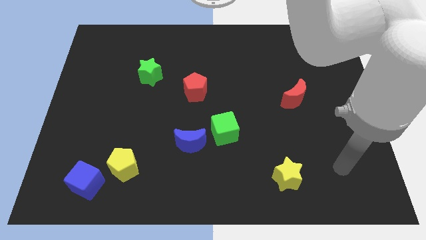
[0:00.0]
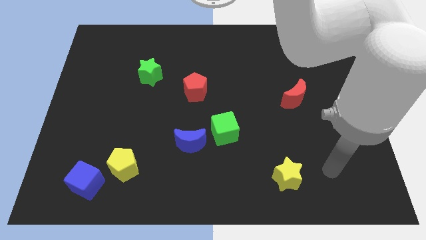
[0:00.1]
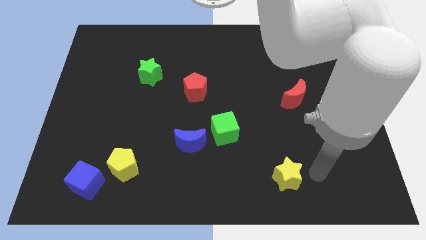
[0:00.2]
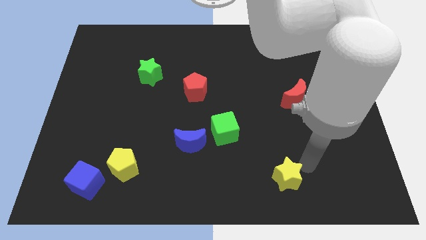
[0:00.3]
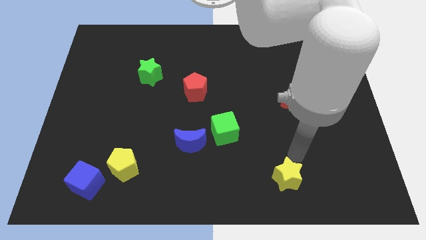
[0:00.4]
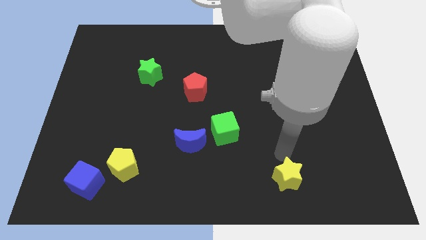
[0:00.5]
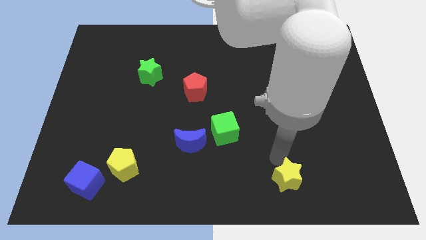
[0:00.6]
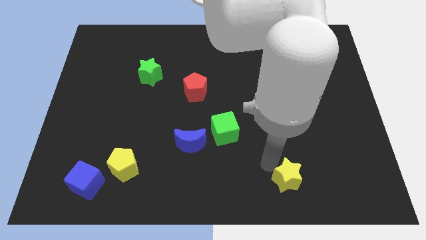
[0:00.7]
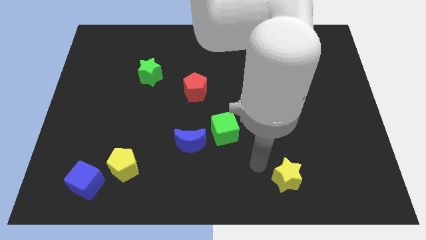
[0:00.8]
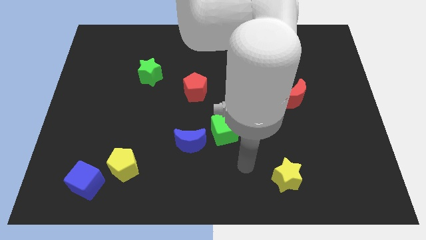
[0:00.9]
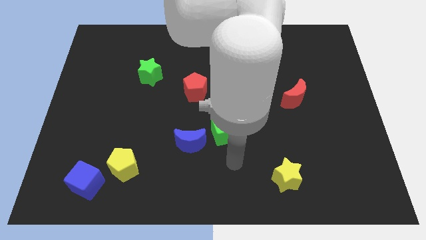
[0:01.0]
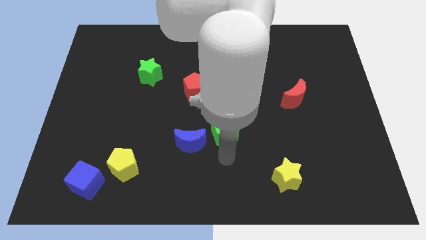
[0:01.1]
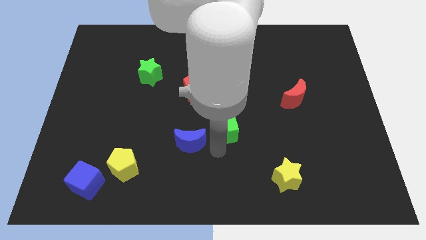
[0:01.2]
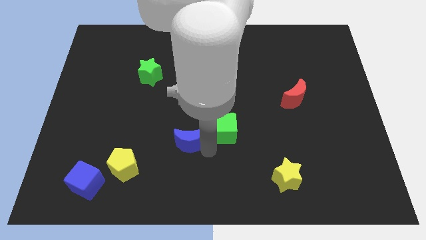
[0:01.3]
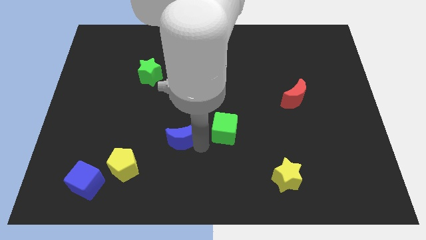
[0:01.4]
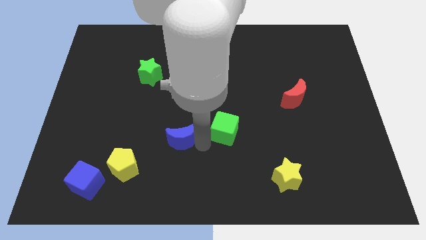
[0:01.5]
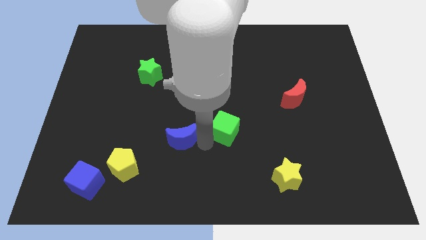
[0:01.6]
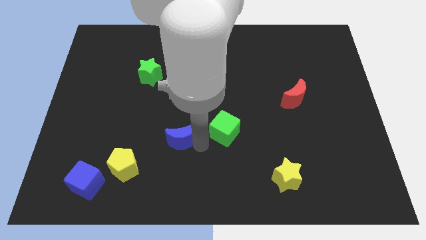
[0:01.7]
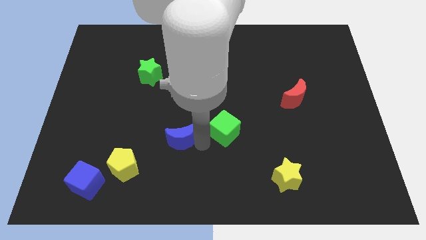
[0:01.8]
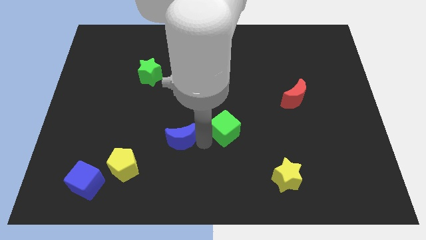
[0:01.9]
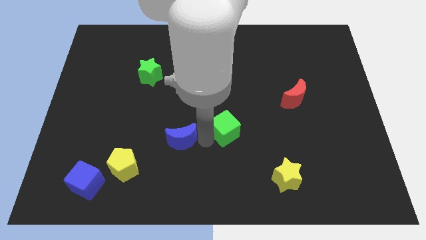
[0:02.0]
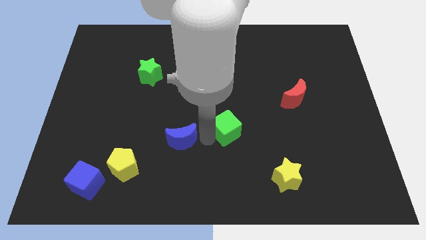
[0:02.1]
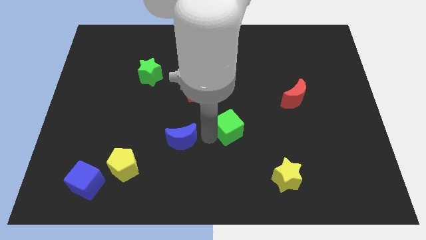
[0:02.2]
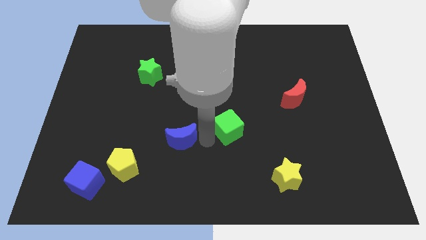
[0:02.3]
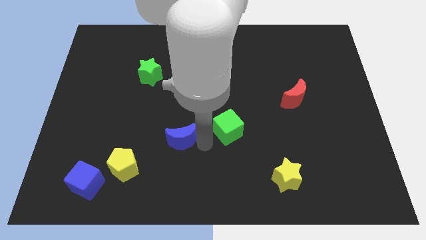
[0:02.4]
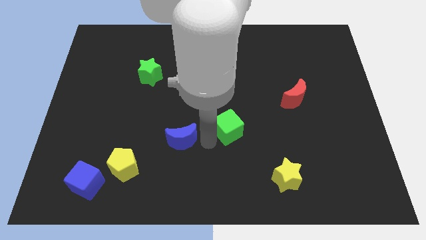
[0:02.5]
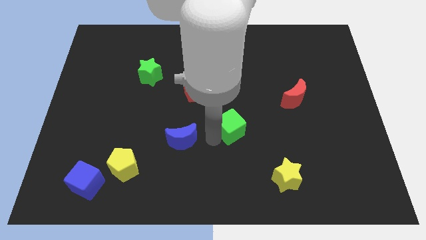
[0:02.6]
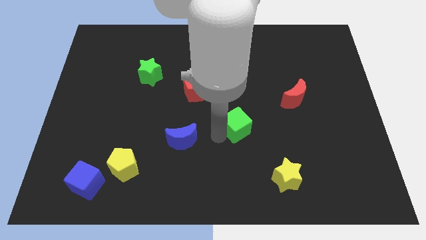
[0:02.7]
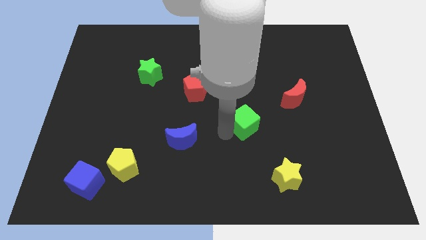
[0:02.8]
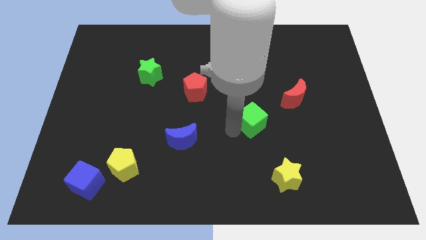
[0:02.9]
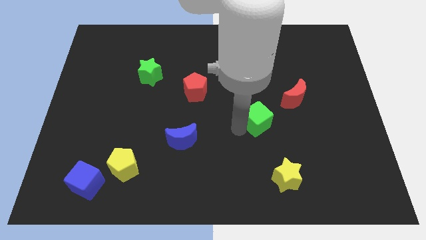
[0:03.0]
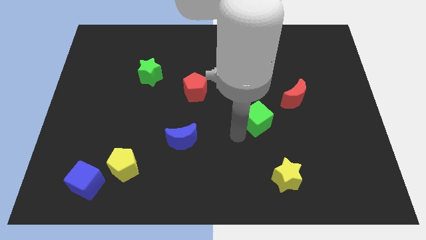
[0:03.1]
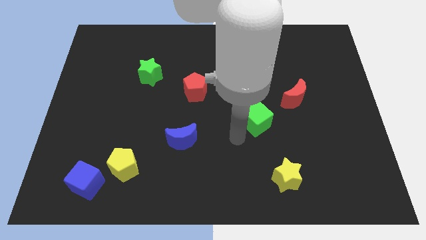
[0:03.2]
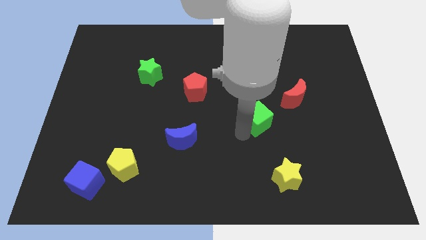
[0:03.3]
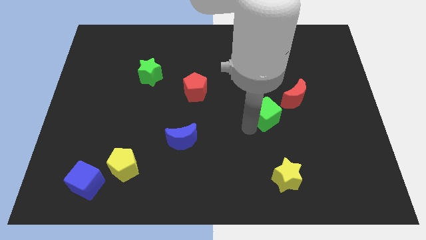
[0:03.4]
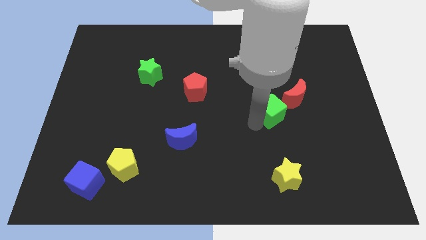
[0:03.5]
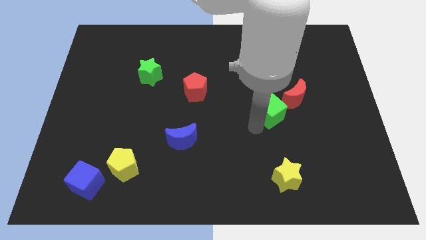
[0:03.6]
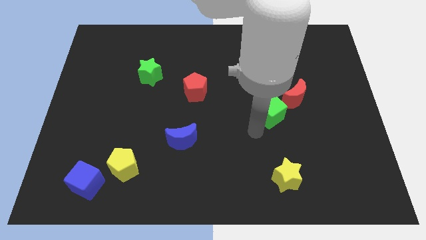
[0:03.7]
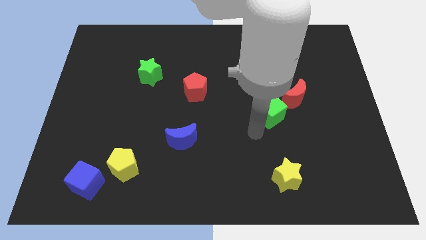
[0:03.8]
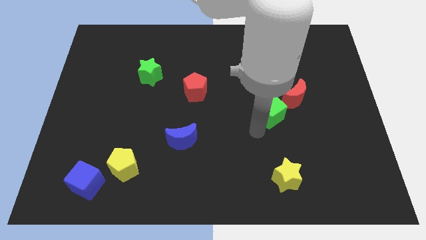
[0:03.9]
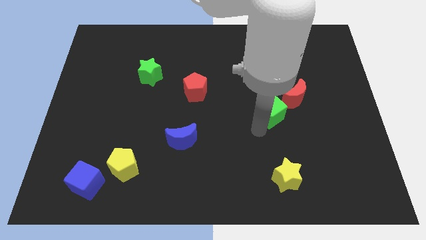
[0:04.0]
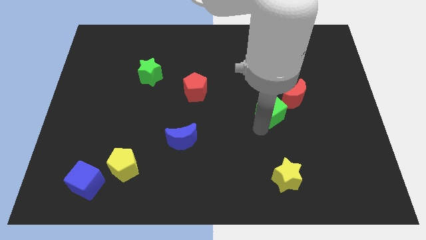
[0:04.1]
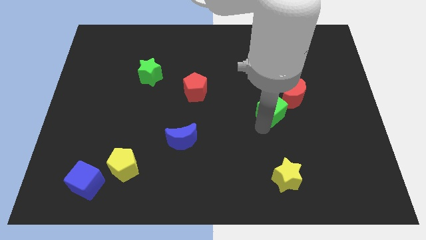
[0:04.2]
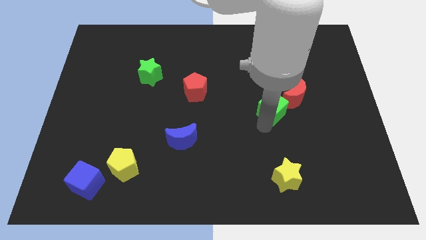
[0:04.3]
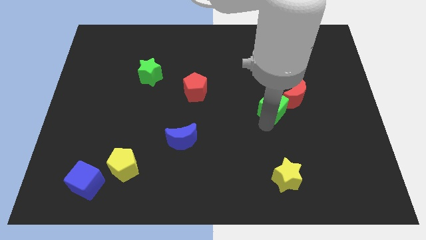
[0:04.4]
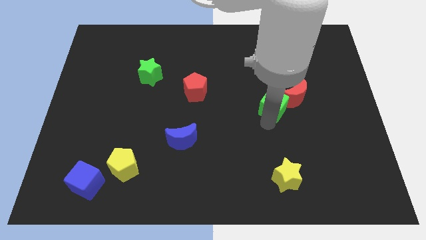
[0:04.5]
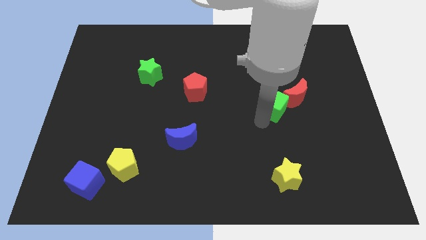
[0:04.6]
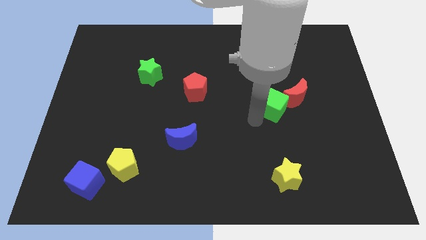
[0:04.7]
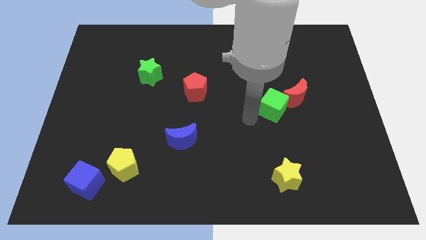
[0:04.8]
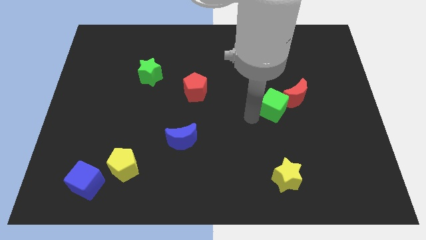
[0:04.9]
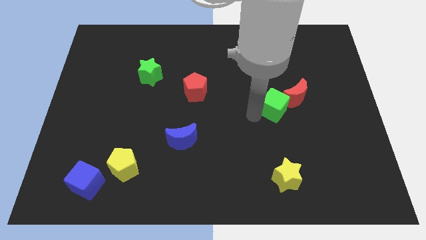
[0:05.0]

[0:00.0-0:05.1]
slide the green cube towards the red moon

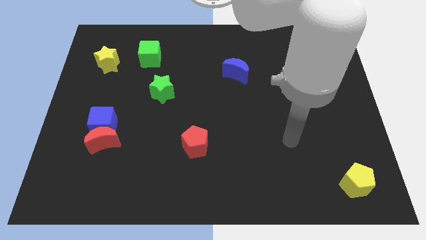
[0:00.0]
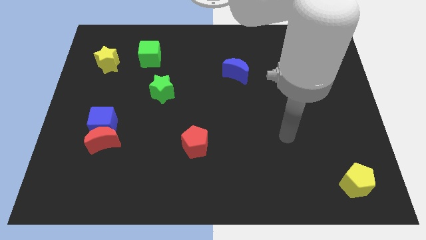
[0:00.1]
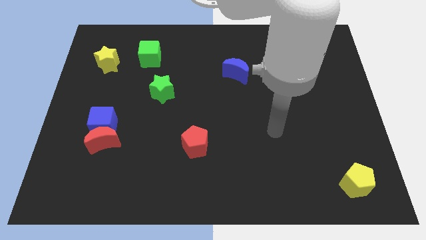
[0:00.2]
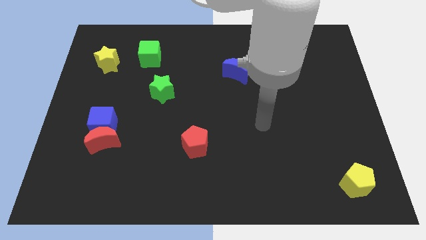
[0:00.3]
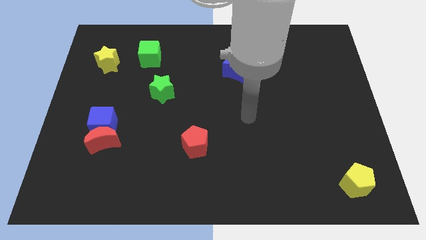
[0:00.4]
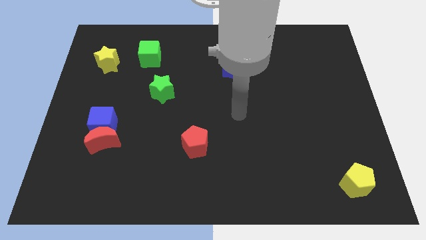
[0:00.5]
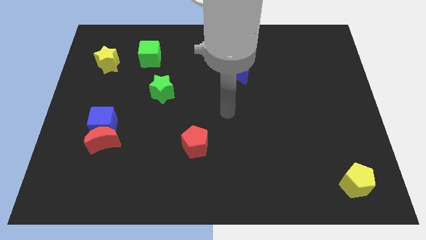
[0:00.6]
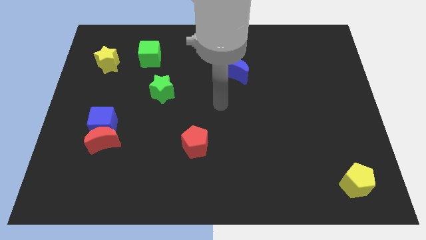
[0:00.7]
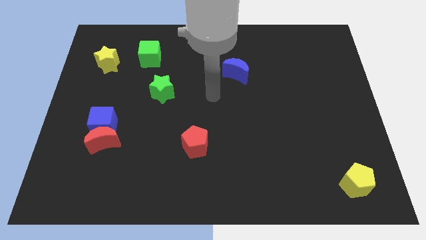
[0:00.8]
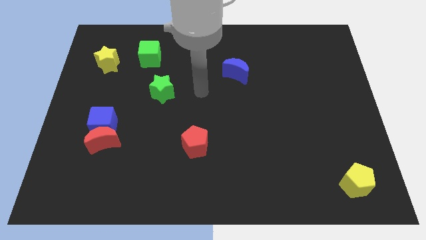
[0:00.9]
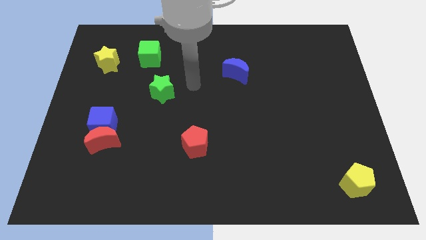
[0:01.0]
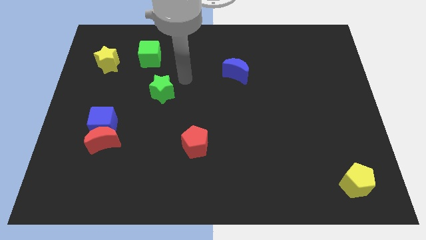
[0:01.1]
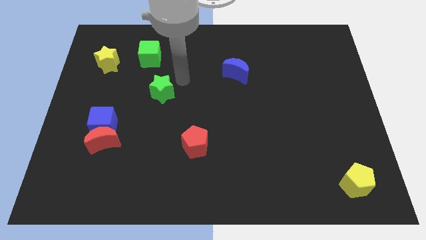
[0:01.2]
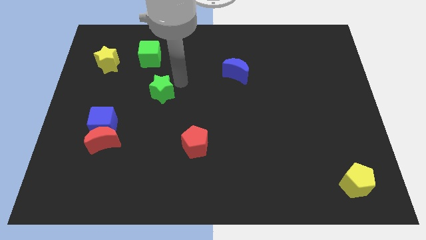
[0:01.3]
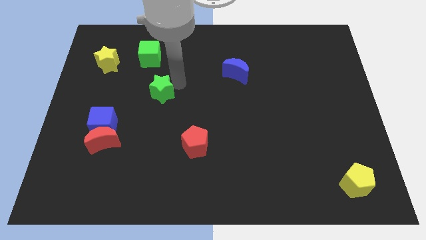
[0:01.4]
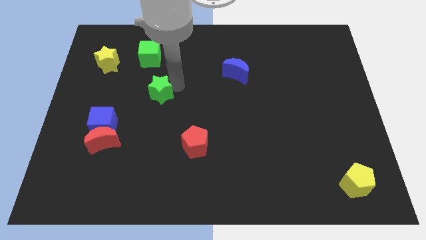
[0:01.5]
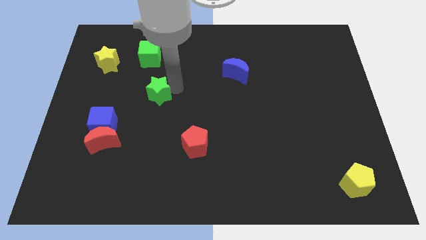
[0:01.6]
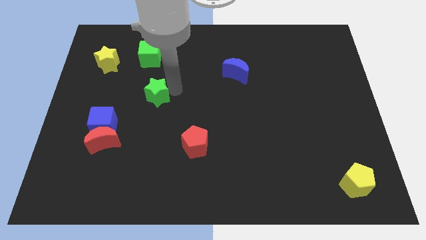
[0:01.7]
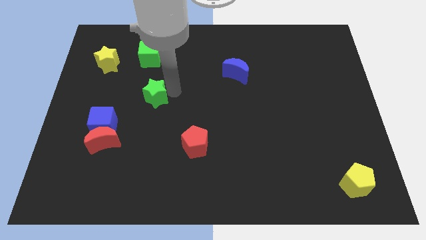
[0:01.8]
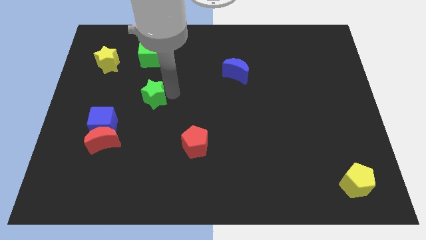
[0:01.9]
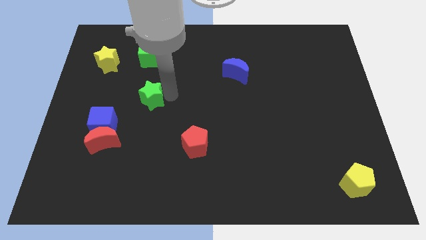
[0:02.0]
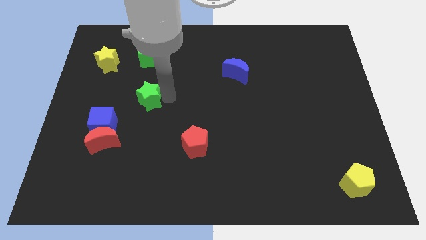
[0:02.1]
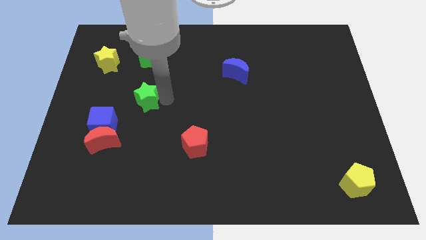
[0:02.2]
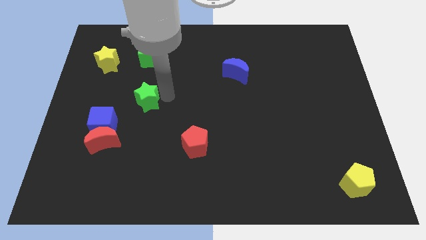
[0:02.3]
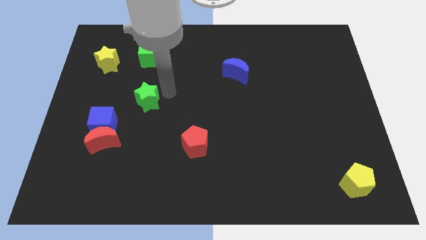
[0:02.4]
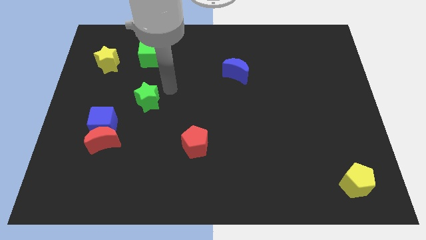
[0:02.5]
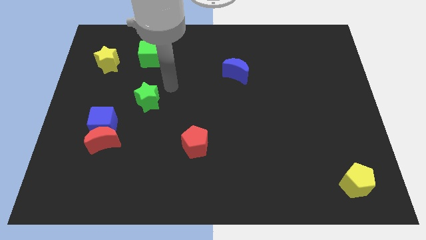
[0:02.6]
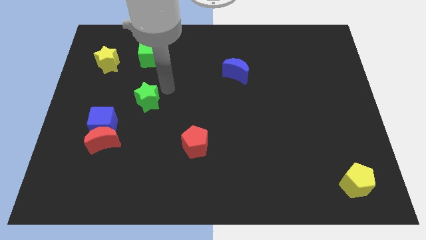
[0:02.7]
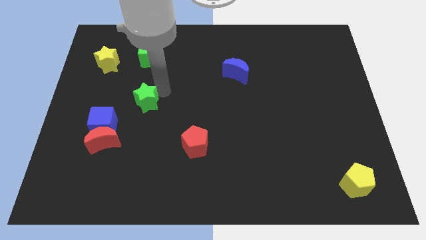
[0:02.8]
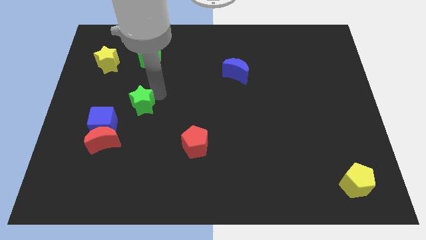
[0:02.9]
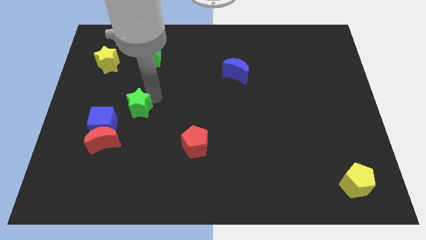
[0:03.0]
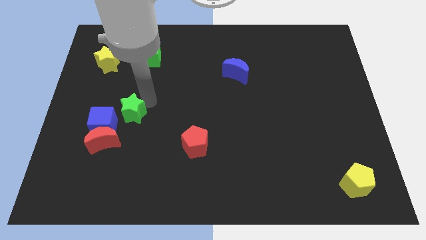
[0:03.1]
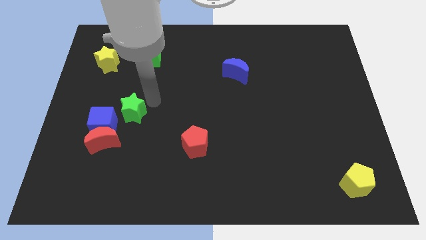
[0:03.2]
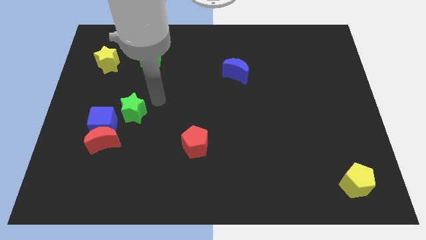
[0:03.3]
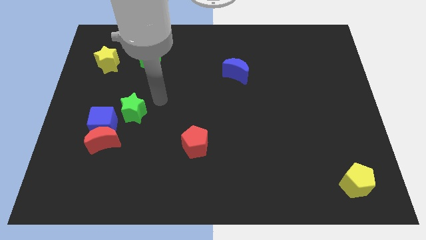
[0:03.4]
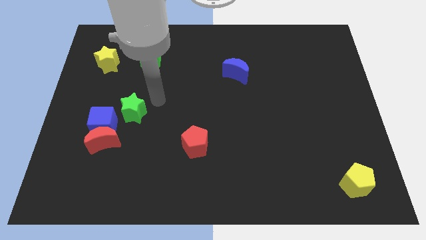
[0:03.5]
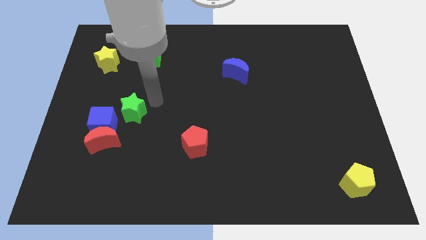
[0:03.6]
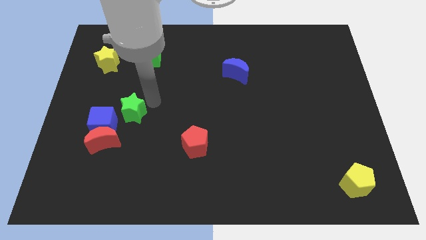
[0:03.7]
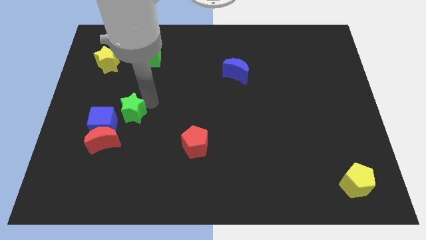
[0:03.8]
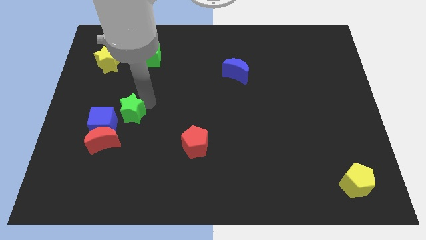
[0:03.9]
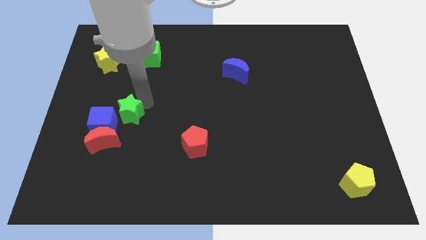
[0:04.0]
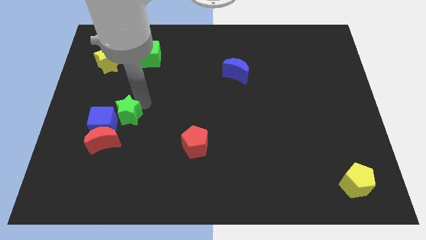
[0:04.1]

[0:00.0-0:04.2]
push the green star close to the blue cube
